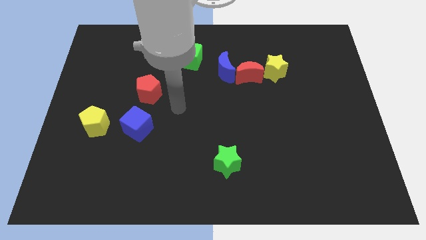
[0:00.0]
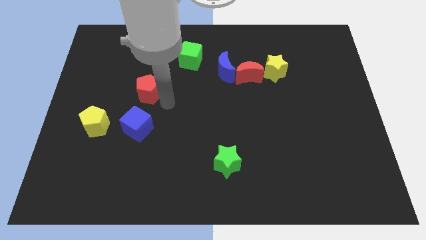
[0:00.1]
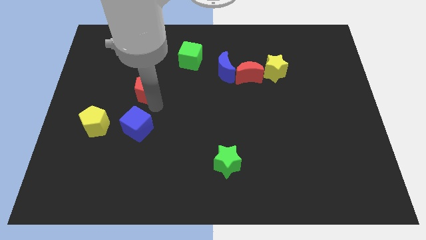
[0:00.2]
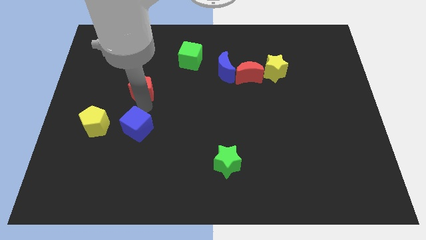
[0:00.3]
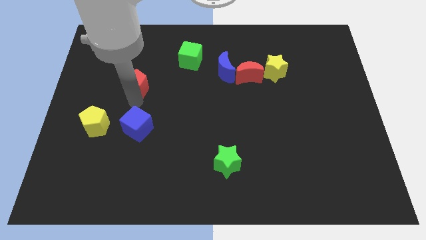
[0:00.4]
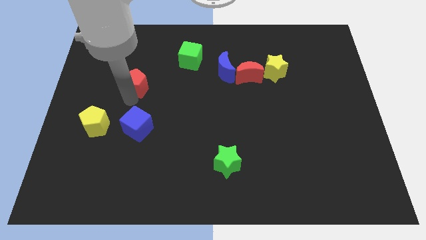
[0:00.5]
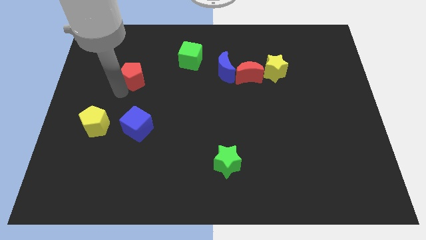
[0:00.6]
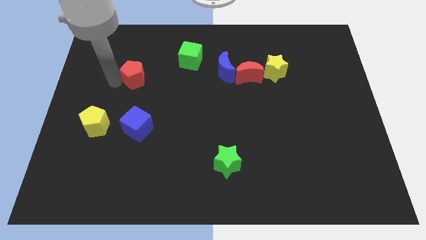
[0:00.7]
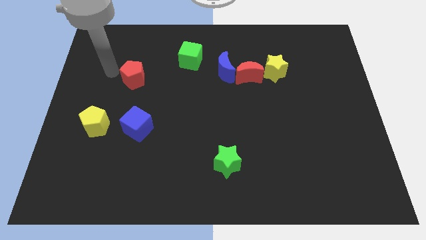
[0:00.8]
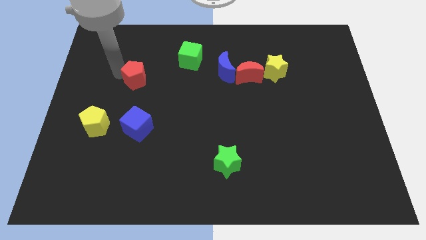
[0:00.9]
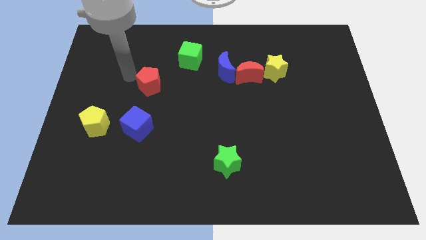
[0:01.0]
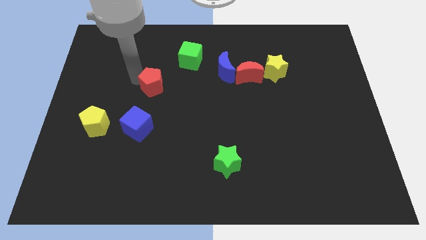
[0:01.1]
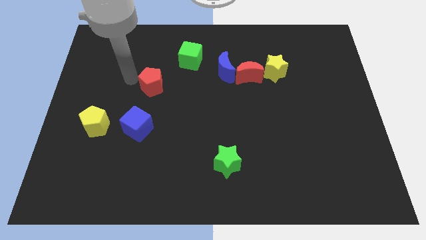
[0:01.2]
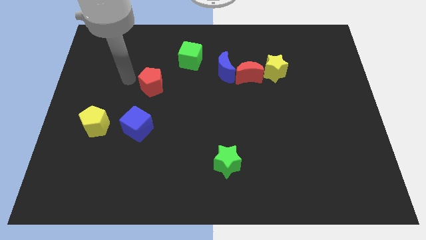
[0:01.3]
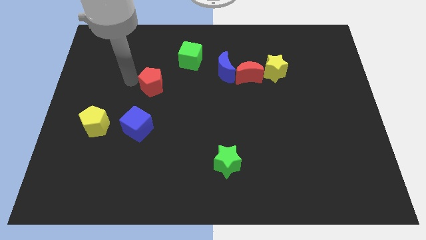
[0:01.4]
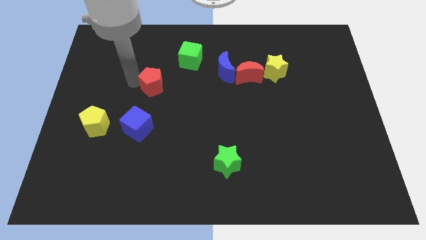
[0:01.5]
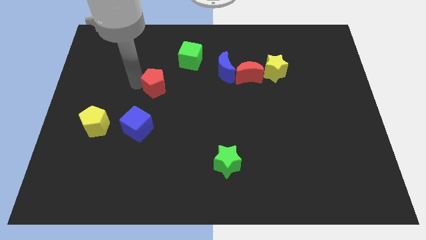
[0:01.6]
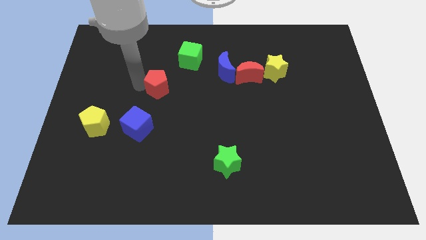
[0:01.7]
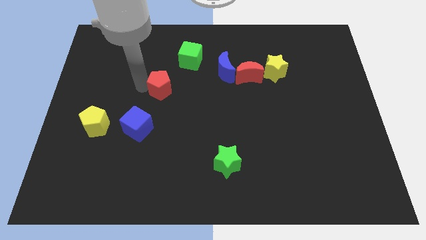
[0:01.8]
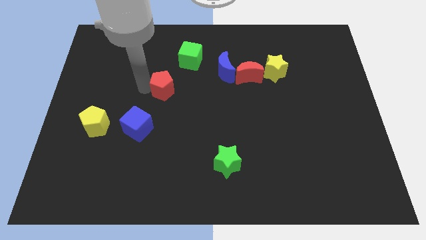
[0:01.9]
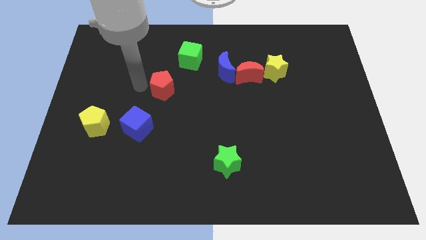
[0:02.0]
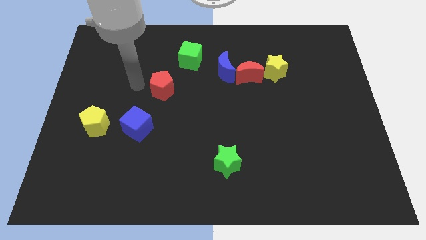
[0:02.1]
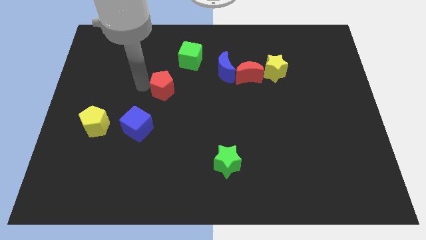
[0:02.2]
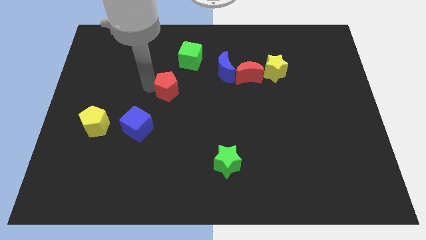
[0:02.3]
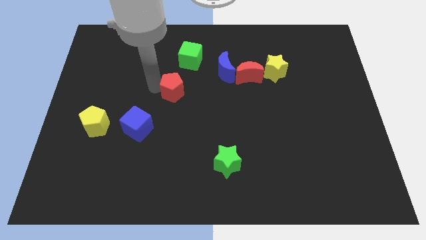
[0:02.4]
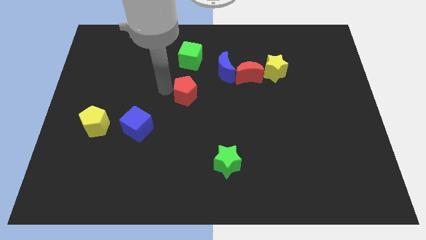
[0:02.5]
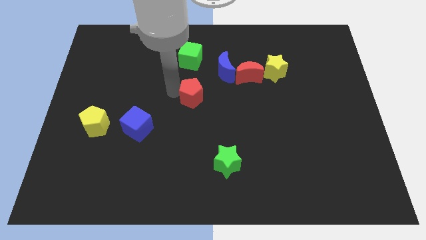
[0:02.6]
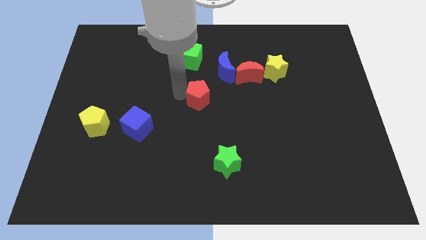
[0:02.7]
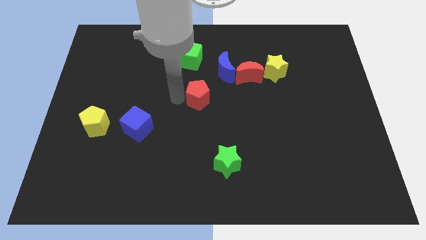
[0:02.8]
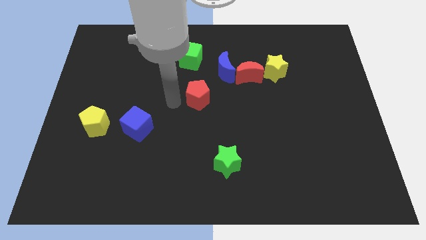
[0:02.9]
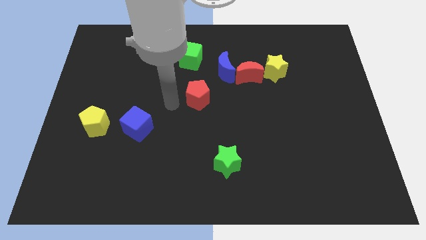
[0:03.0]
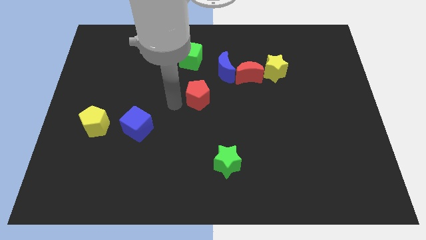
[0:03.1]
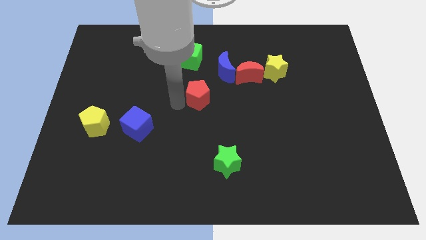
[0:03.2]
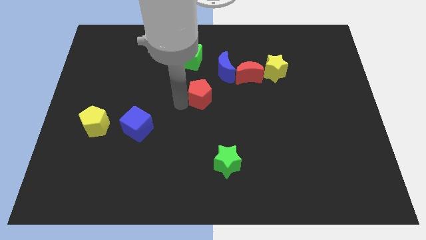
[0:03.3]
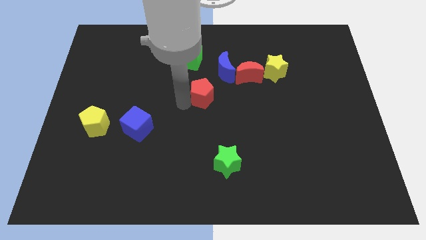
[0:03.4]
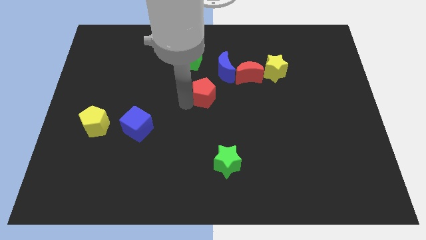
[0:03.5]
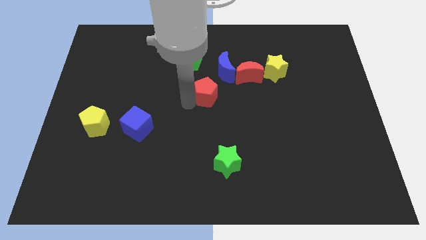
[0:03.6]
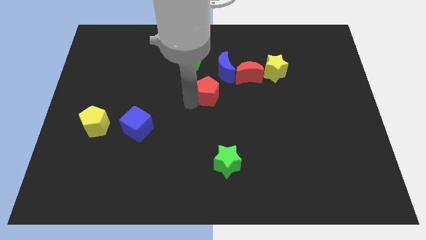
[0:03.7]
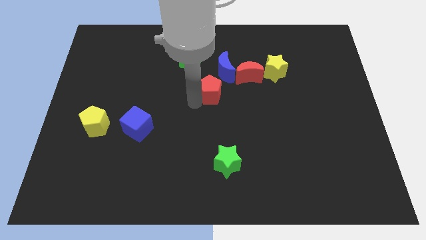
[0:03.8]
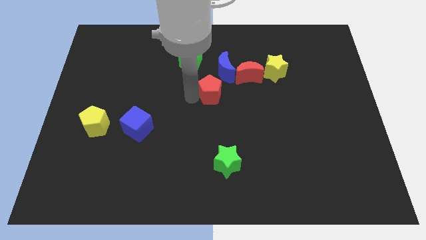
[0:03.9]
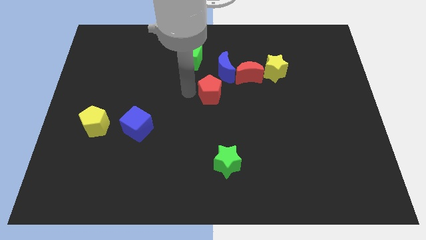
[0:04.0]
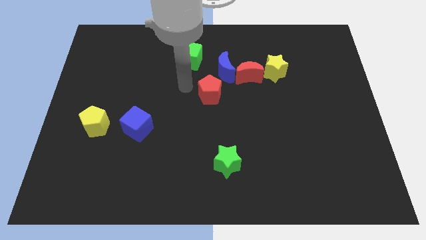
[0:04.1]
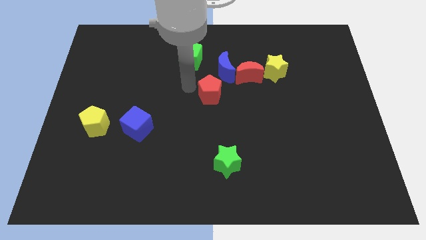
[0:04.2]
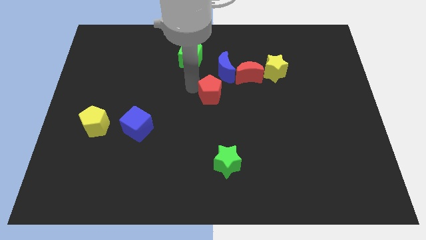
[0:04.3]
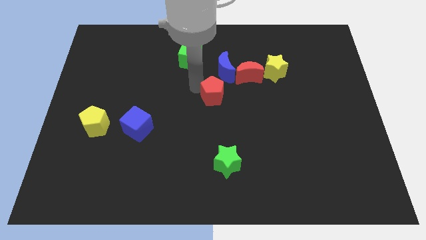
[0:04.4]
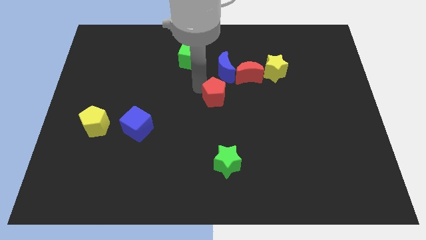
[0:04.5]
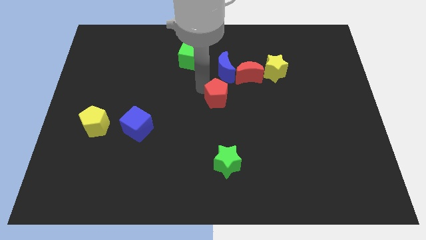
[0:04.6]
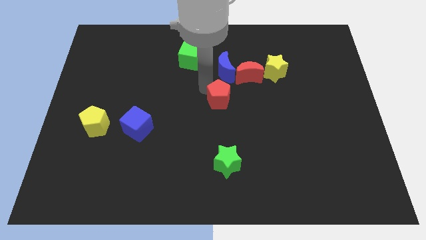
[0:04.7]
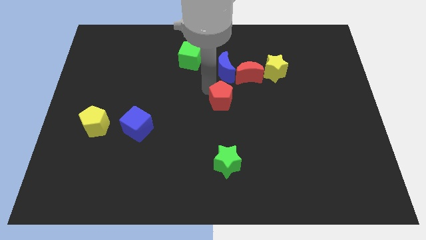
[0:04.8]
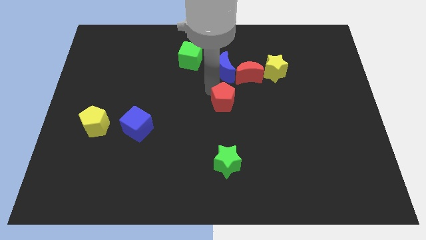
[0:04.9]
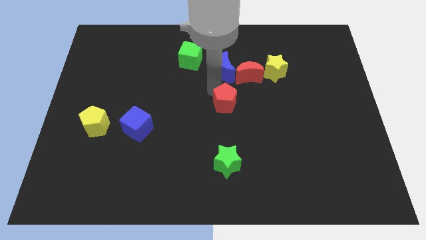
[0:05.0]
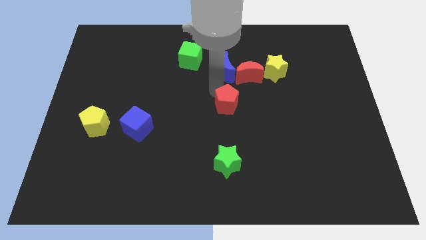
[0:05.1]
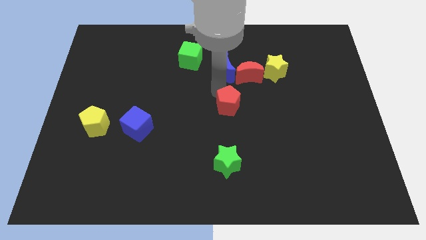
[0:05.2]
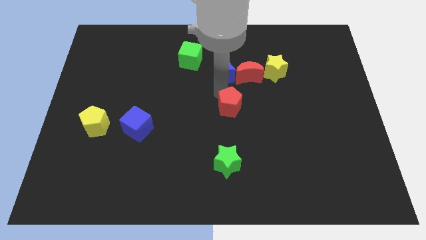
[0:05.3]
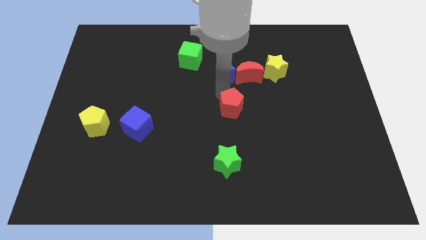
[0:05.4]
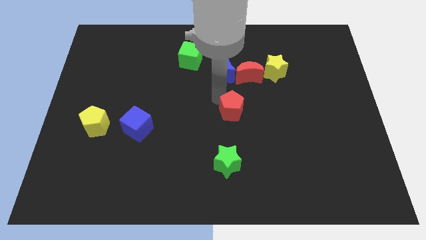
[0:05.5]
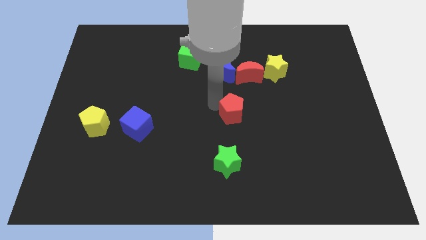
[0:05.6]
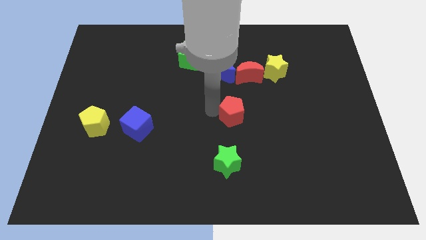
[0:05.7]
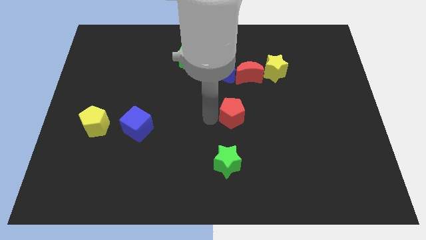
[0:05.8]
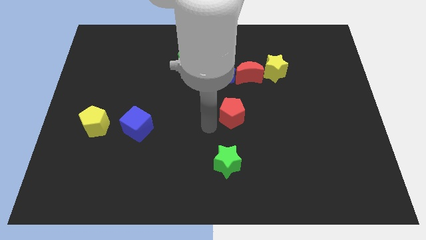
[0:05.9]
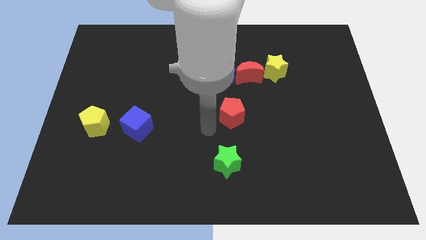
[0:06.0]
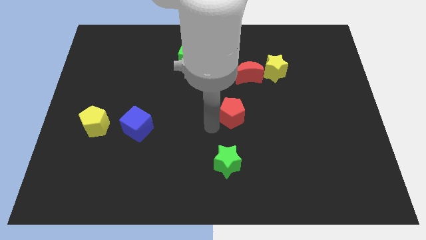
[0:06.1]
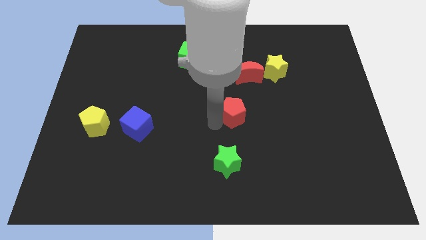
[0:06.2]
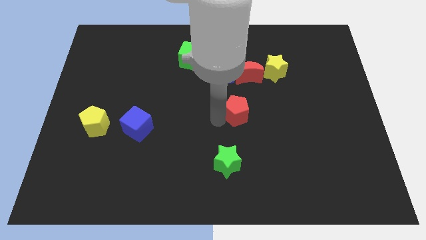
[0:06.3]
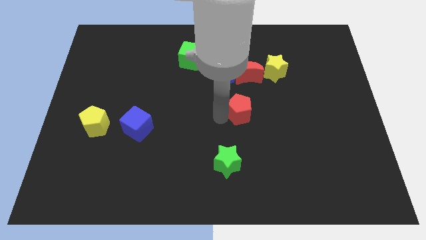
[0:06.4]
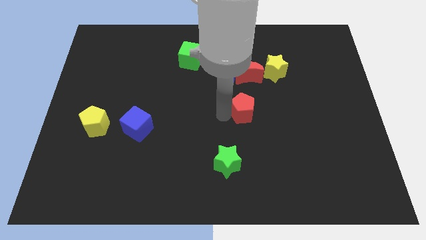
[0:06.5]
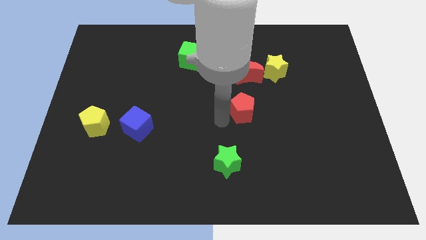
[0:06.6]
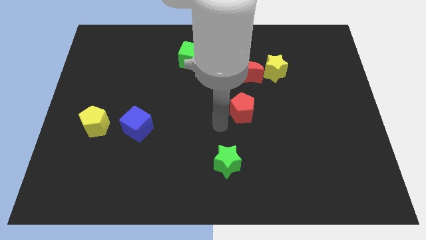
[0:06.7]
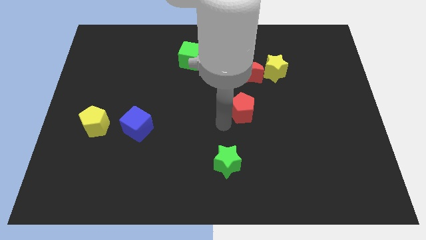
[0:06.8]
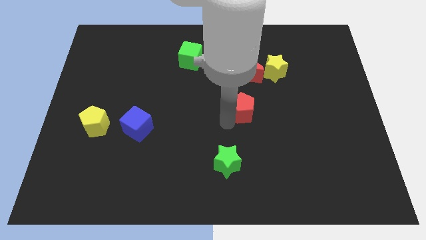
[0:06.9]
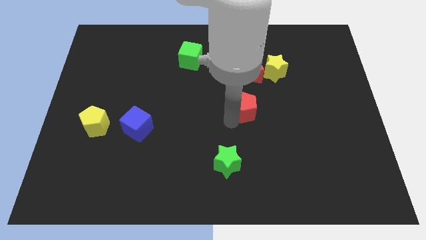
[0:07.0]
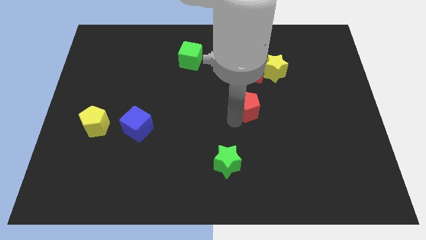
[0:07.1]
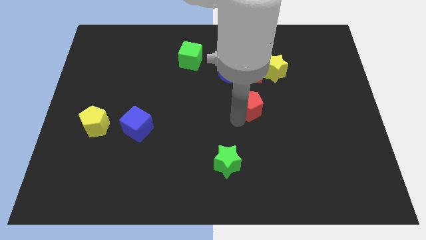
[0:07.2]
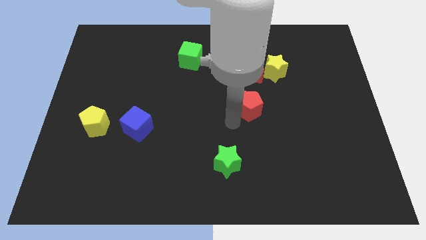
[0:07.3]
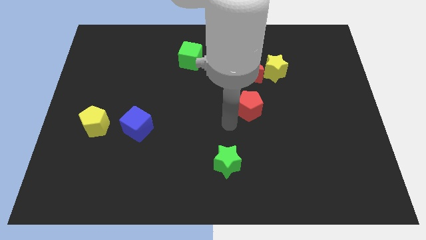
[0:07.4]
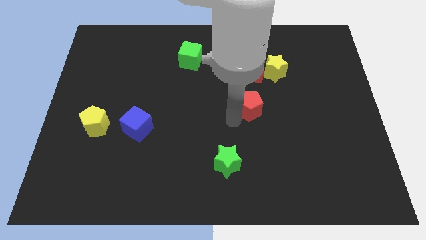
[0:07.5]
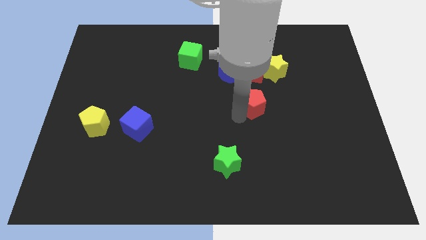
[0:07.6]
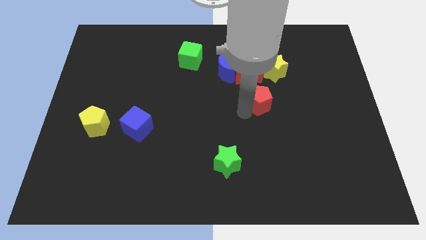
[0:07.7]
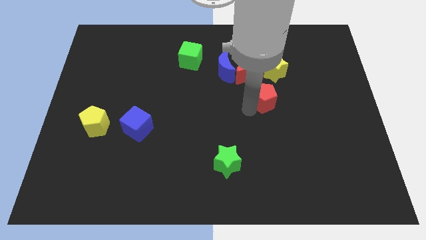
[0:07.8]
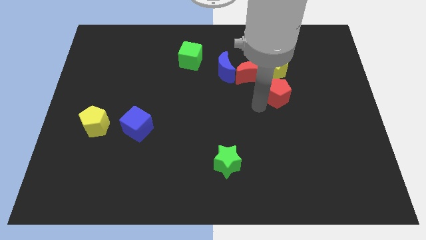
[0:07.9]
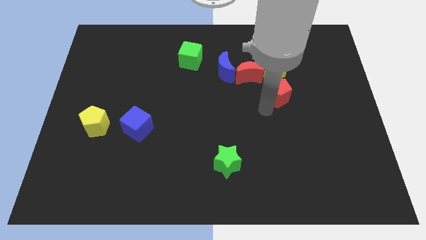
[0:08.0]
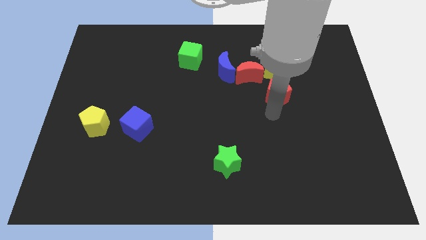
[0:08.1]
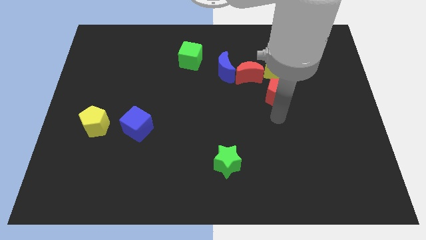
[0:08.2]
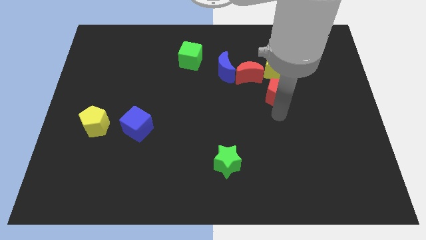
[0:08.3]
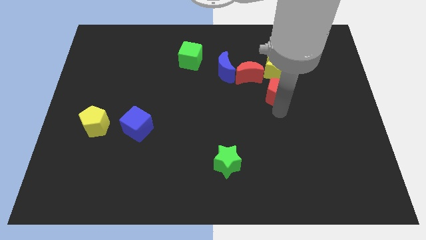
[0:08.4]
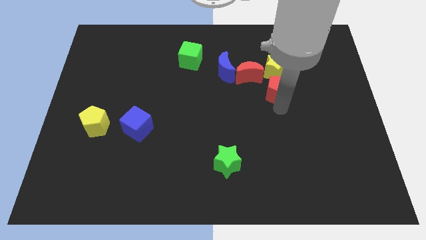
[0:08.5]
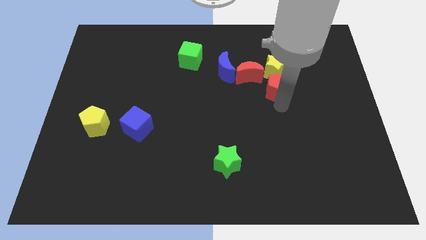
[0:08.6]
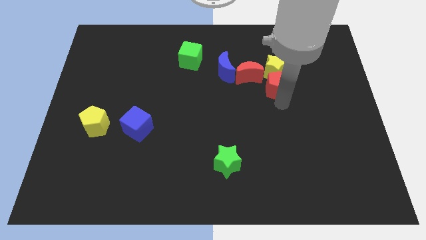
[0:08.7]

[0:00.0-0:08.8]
push the red pentagon towards the yellow star
